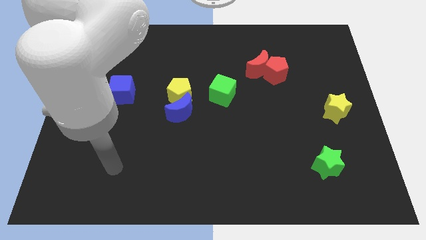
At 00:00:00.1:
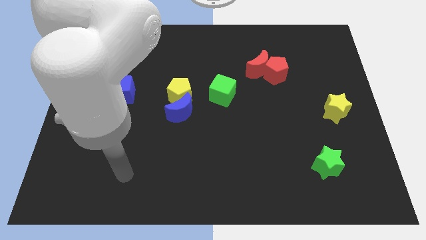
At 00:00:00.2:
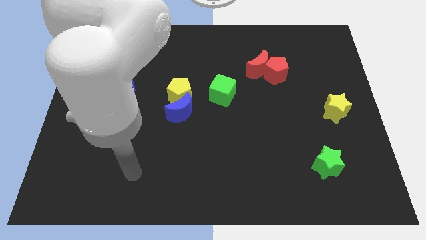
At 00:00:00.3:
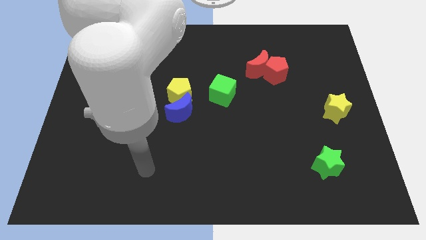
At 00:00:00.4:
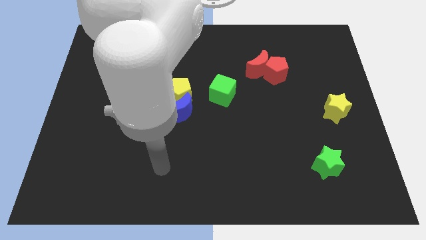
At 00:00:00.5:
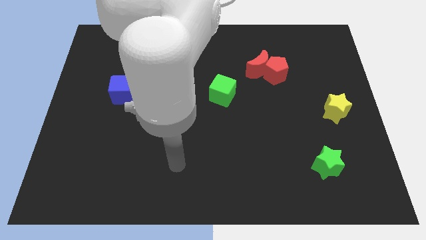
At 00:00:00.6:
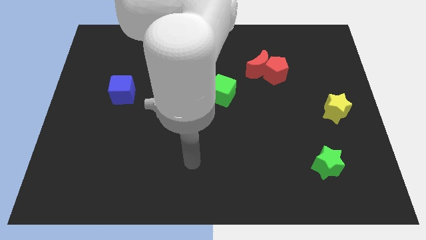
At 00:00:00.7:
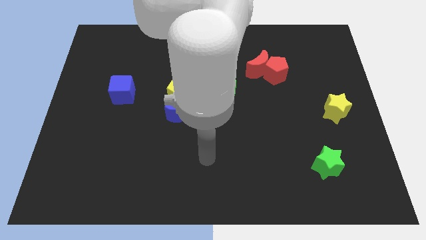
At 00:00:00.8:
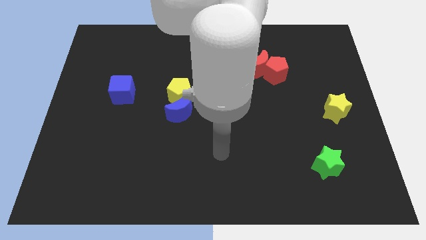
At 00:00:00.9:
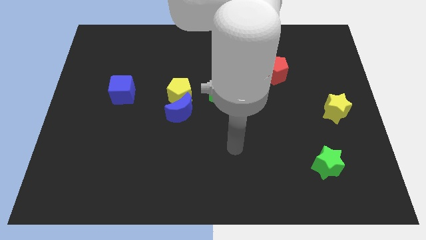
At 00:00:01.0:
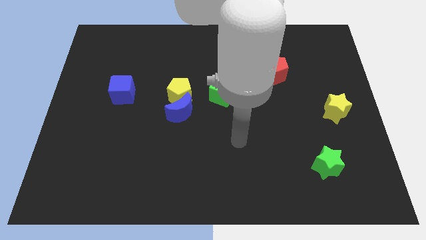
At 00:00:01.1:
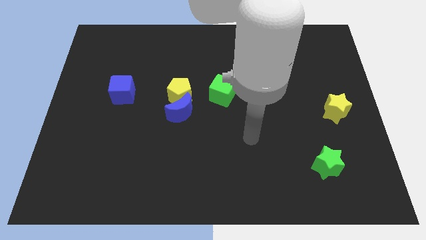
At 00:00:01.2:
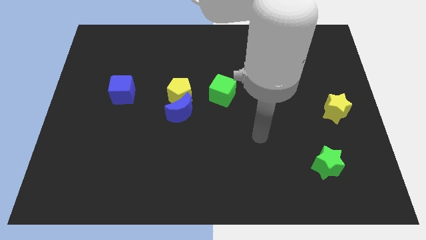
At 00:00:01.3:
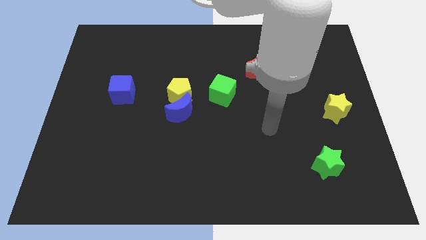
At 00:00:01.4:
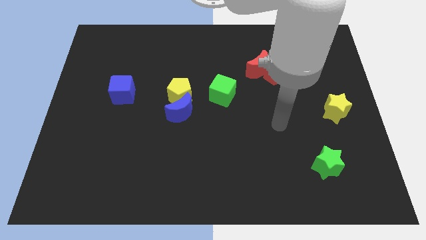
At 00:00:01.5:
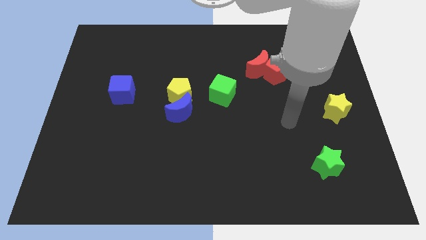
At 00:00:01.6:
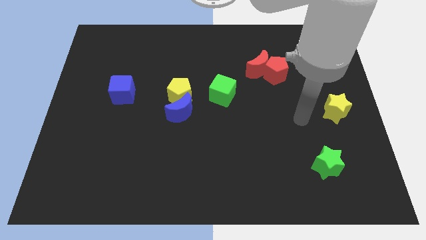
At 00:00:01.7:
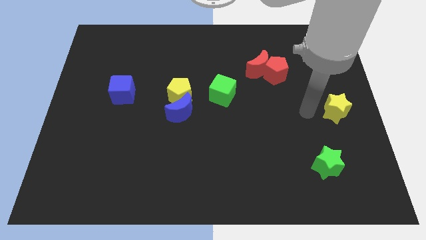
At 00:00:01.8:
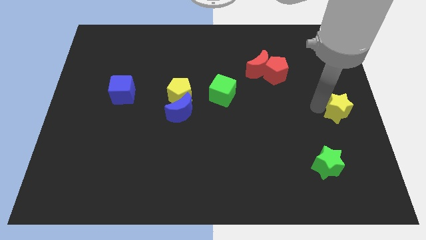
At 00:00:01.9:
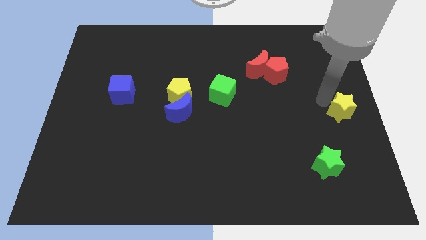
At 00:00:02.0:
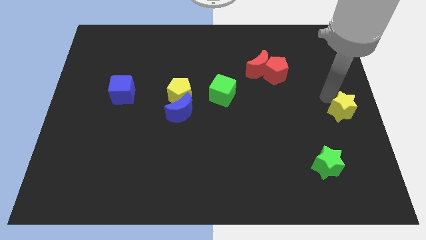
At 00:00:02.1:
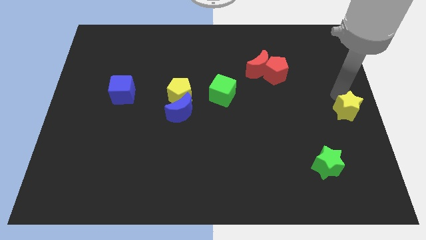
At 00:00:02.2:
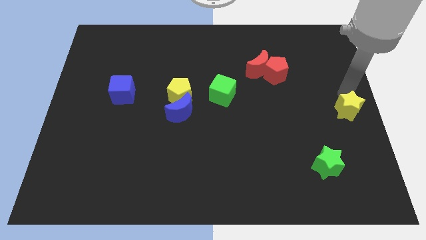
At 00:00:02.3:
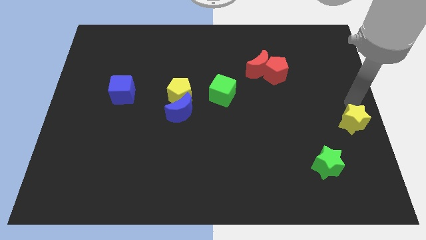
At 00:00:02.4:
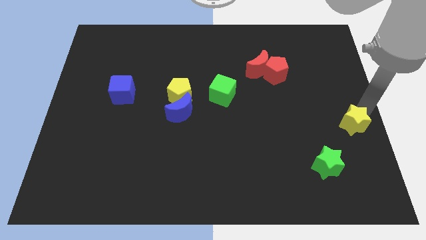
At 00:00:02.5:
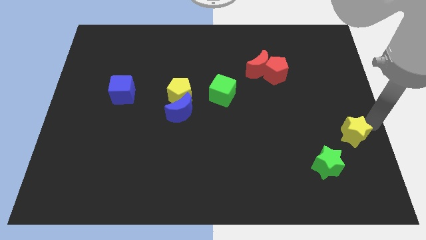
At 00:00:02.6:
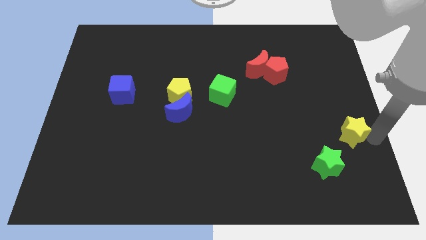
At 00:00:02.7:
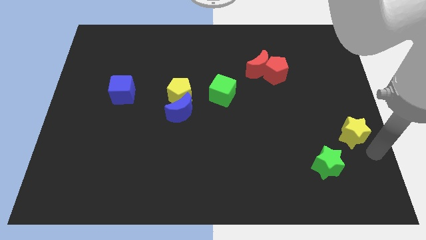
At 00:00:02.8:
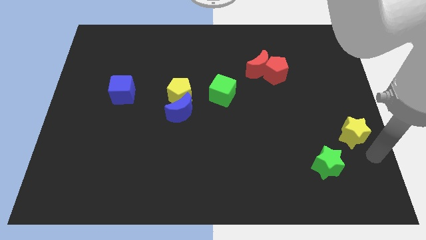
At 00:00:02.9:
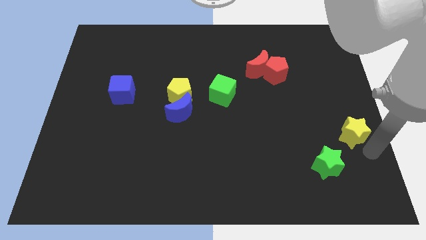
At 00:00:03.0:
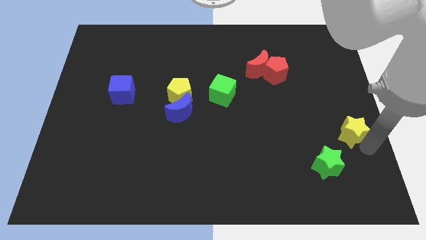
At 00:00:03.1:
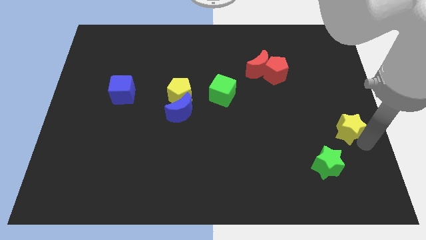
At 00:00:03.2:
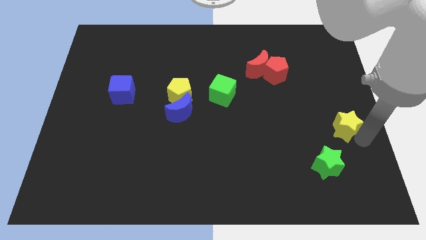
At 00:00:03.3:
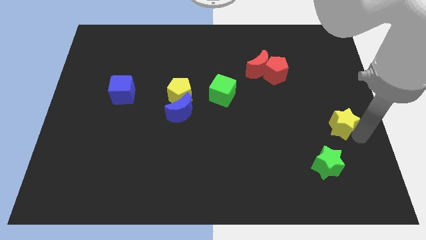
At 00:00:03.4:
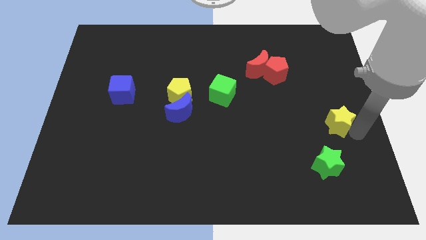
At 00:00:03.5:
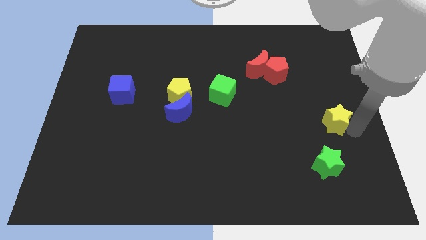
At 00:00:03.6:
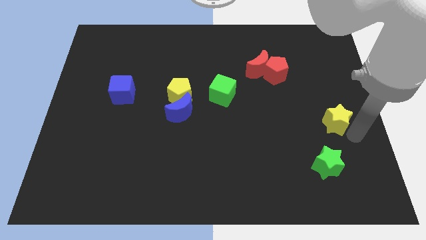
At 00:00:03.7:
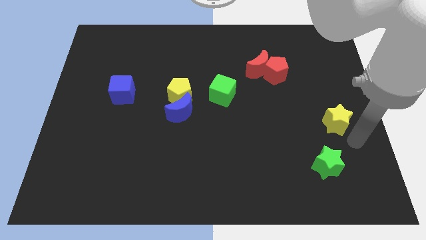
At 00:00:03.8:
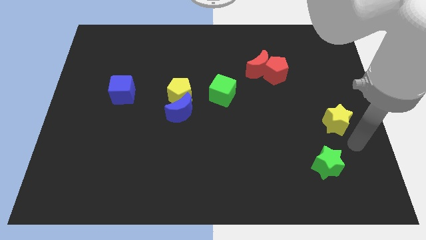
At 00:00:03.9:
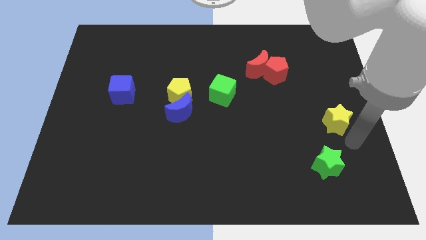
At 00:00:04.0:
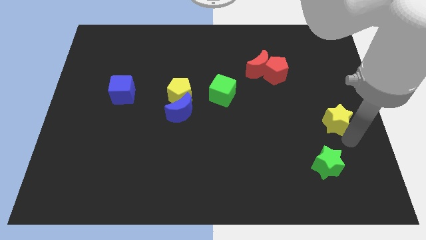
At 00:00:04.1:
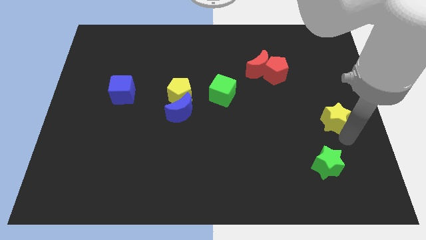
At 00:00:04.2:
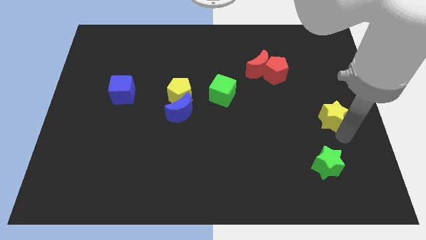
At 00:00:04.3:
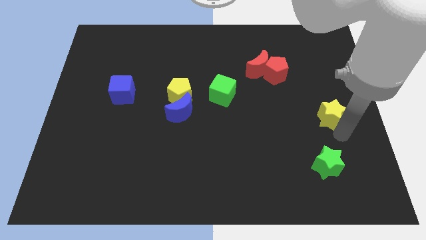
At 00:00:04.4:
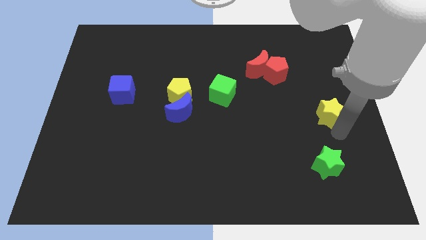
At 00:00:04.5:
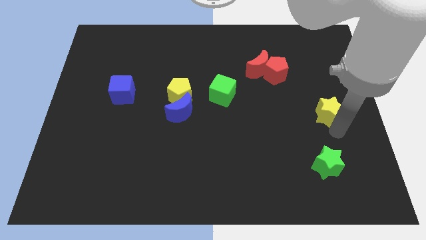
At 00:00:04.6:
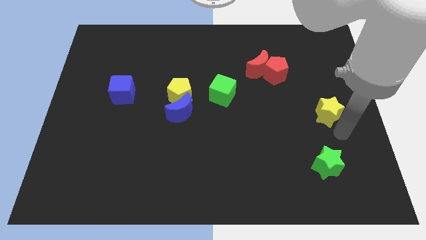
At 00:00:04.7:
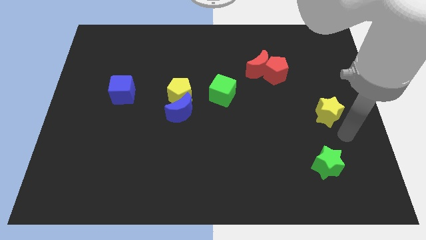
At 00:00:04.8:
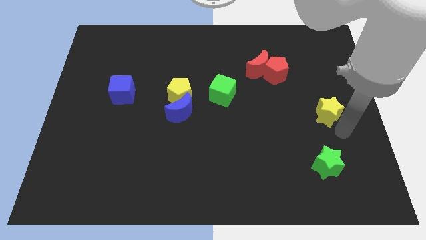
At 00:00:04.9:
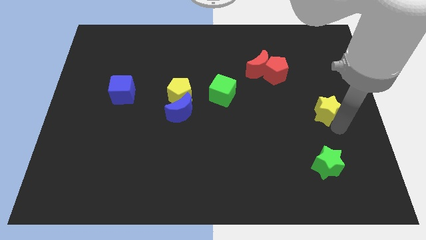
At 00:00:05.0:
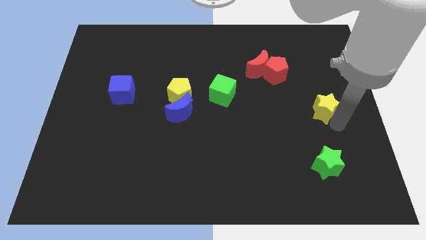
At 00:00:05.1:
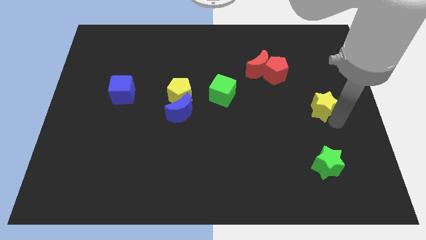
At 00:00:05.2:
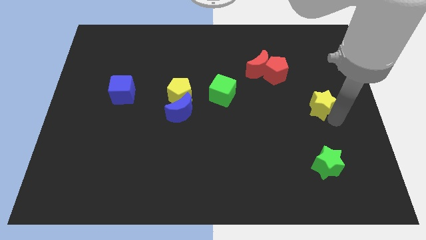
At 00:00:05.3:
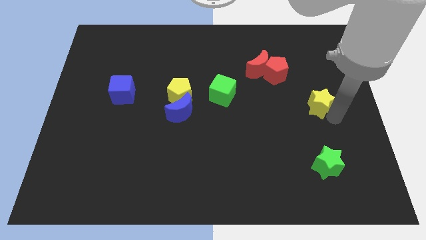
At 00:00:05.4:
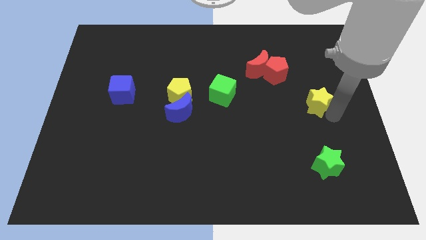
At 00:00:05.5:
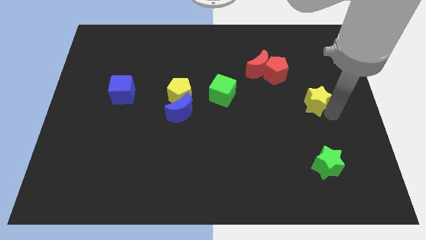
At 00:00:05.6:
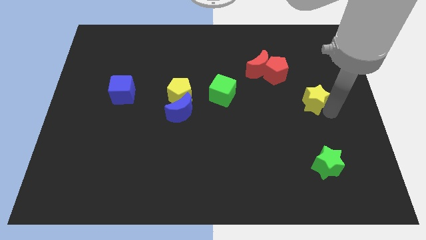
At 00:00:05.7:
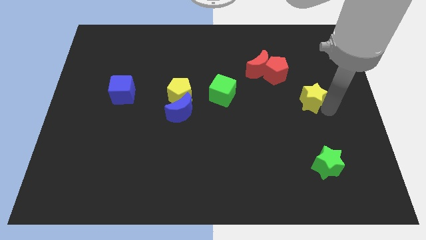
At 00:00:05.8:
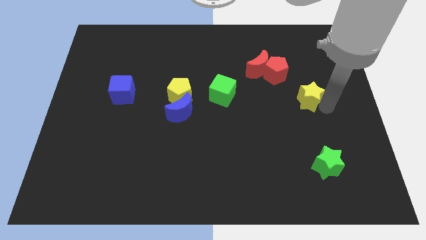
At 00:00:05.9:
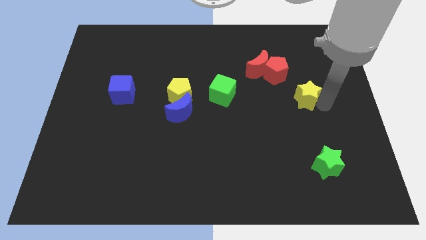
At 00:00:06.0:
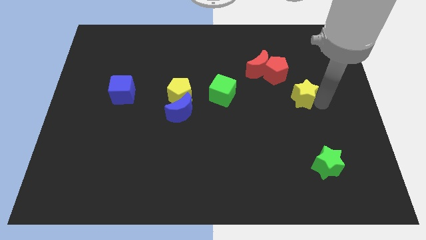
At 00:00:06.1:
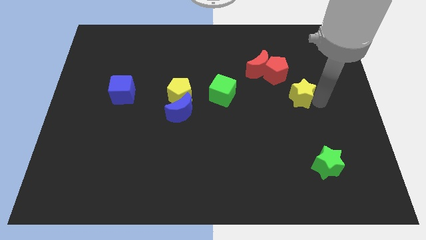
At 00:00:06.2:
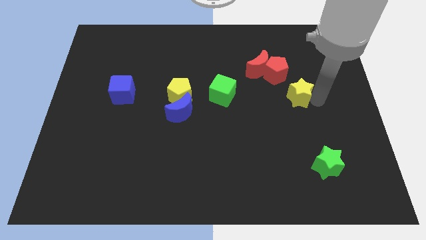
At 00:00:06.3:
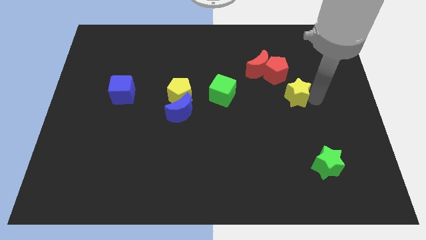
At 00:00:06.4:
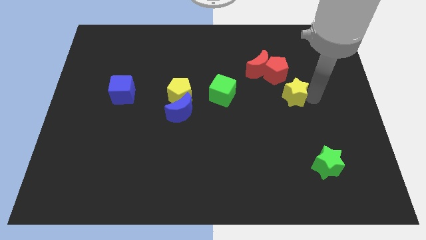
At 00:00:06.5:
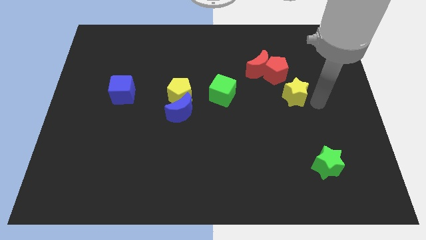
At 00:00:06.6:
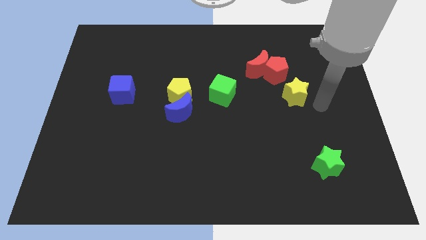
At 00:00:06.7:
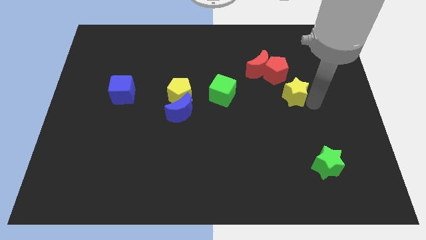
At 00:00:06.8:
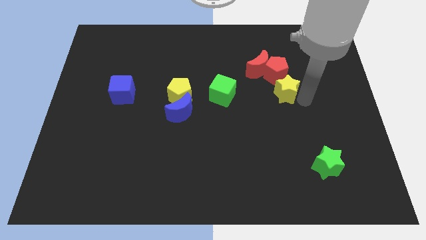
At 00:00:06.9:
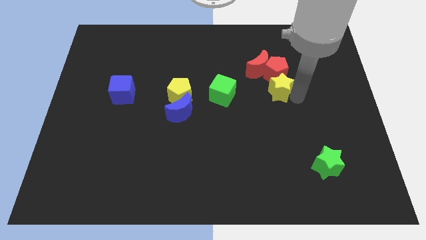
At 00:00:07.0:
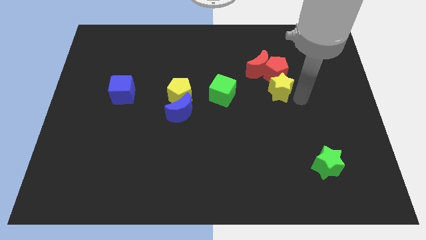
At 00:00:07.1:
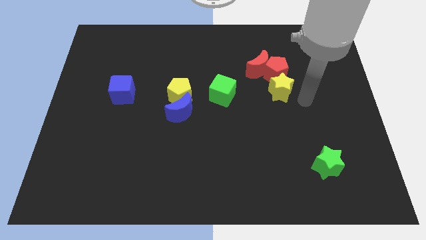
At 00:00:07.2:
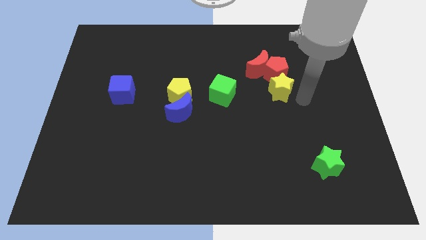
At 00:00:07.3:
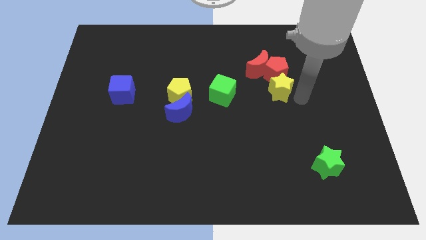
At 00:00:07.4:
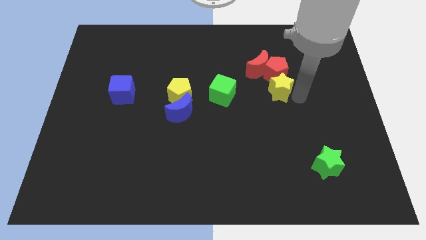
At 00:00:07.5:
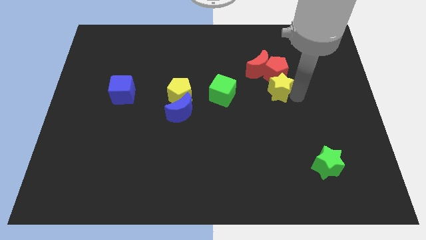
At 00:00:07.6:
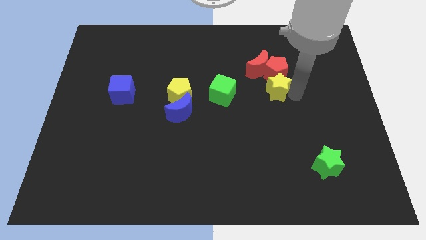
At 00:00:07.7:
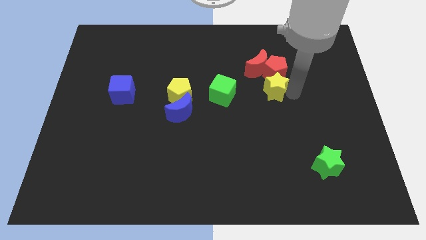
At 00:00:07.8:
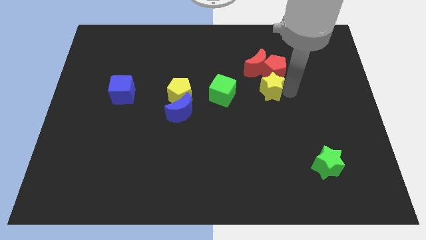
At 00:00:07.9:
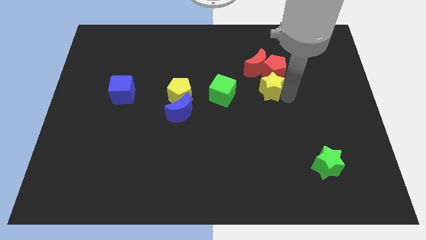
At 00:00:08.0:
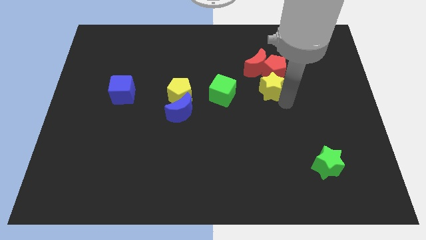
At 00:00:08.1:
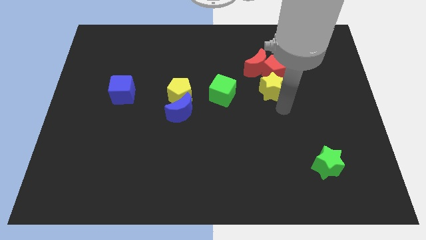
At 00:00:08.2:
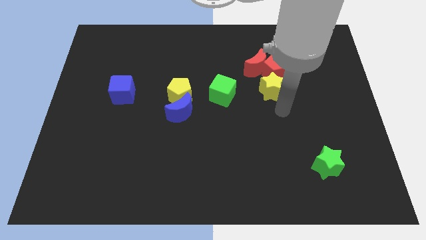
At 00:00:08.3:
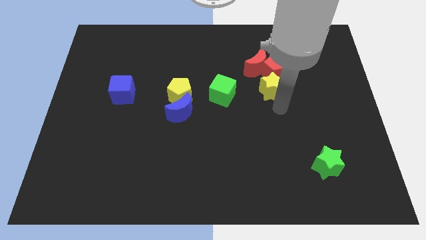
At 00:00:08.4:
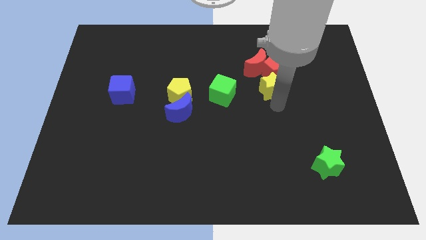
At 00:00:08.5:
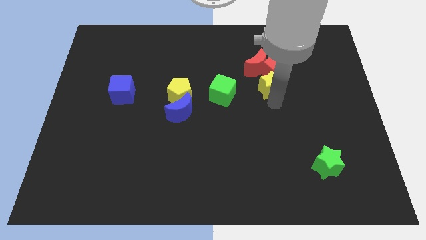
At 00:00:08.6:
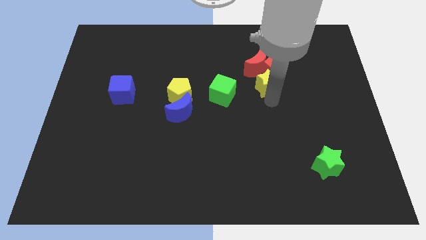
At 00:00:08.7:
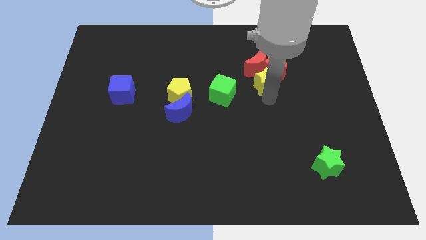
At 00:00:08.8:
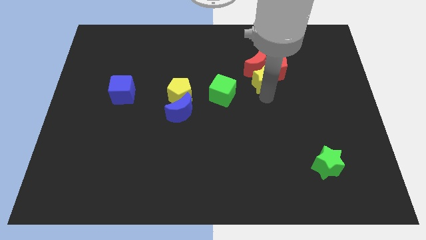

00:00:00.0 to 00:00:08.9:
slide the yellow star to the red moon
